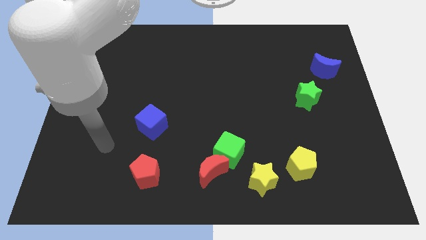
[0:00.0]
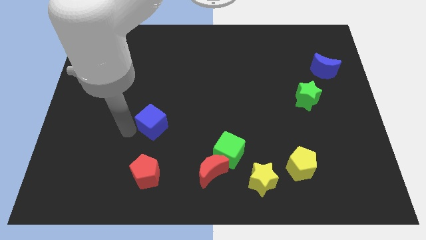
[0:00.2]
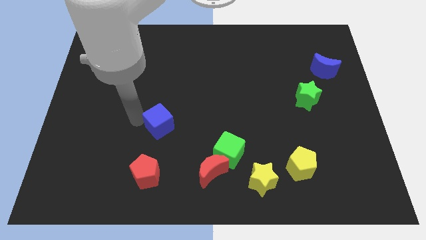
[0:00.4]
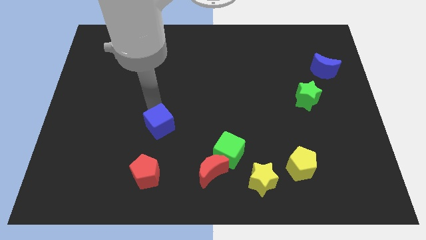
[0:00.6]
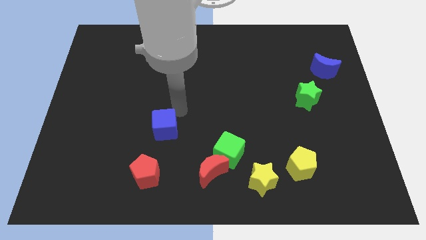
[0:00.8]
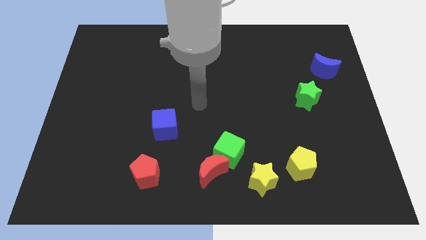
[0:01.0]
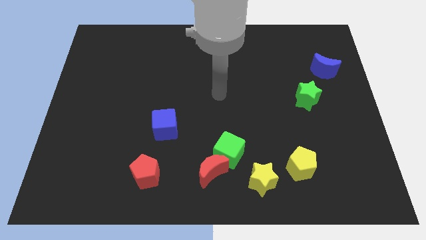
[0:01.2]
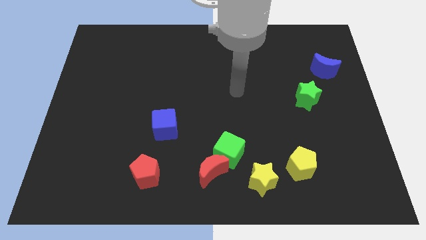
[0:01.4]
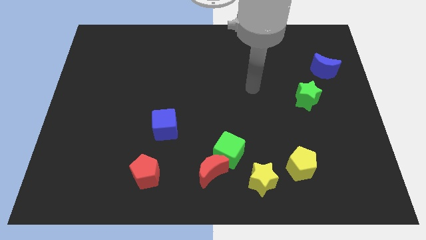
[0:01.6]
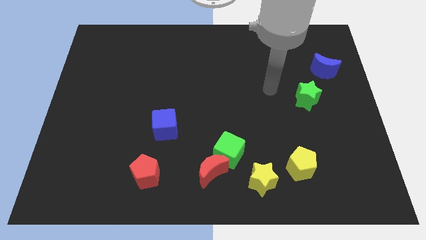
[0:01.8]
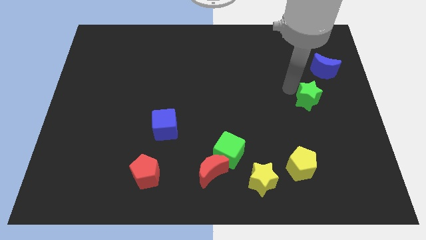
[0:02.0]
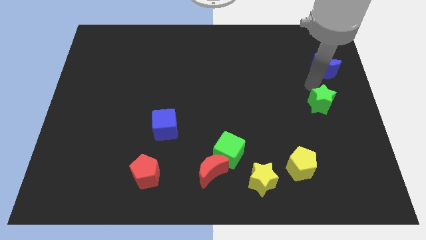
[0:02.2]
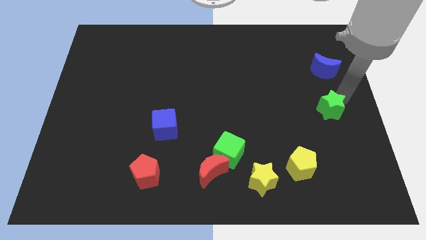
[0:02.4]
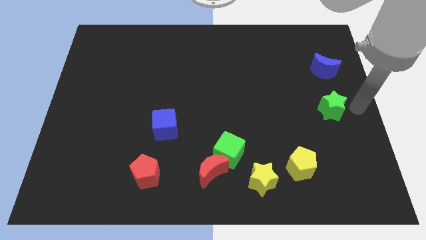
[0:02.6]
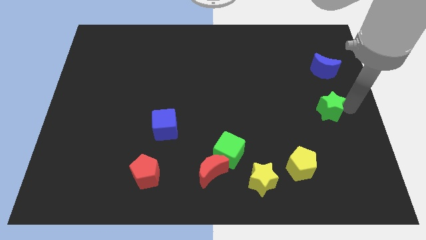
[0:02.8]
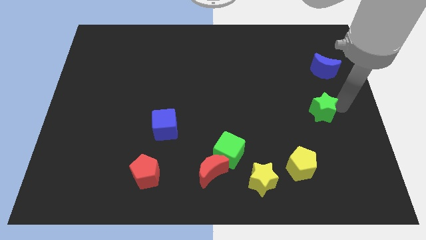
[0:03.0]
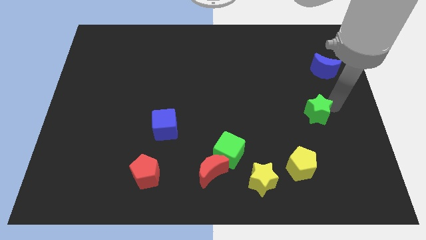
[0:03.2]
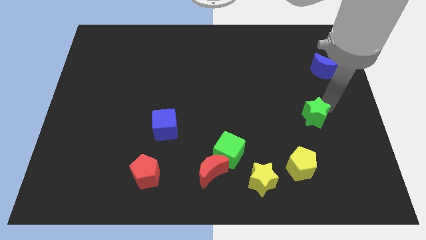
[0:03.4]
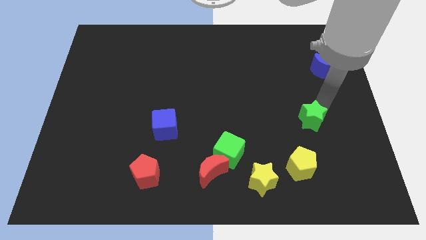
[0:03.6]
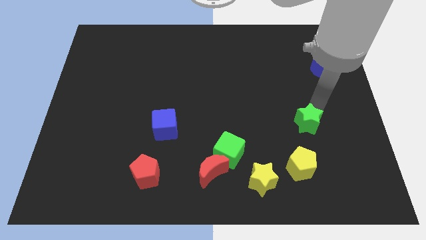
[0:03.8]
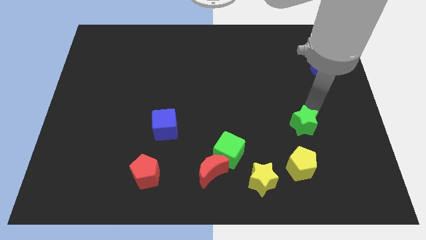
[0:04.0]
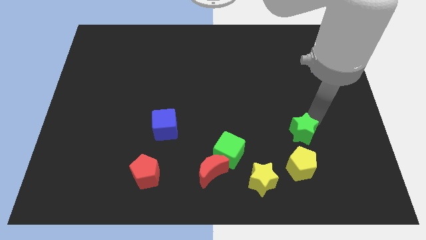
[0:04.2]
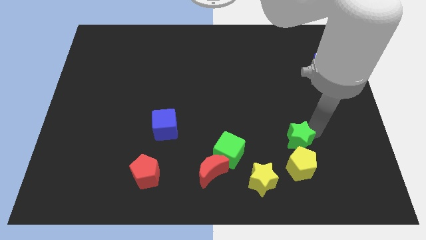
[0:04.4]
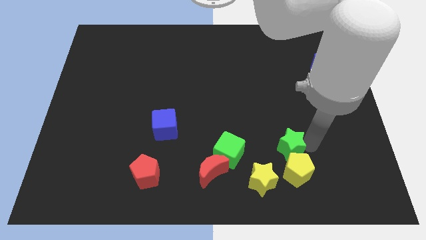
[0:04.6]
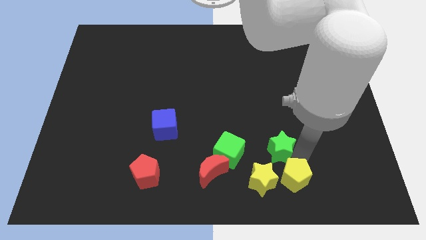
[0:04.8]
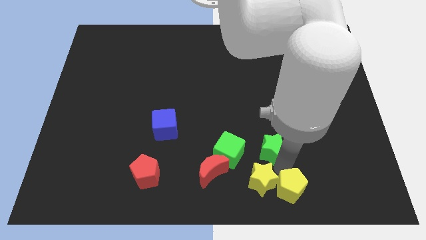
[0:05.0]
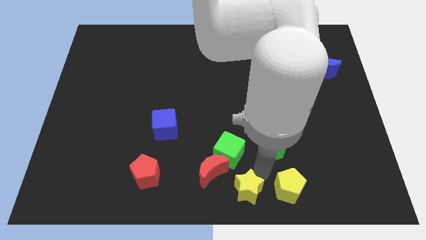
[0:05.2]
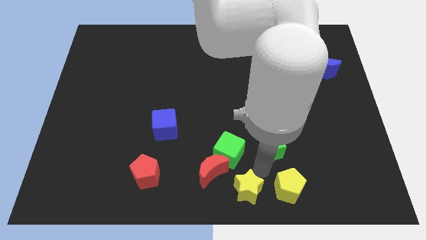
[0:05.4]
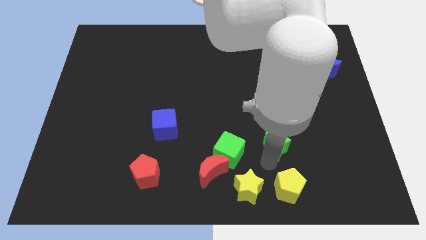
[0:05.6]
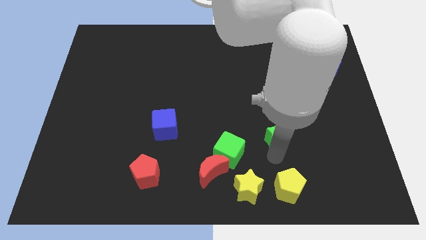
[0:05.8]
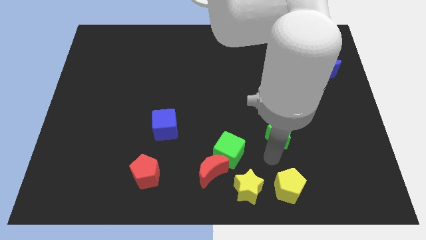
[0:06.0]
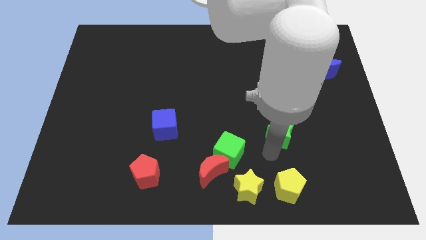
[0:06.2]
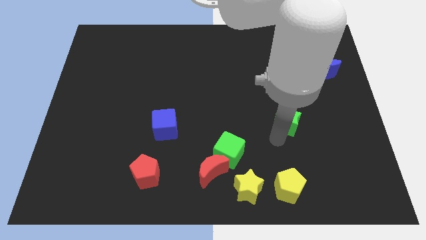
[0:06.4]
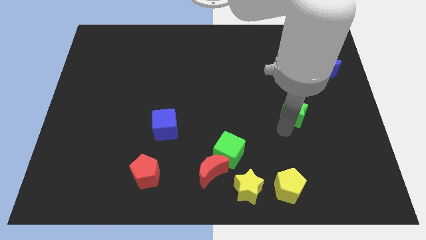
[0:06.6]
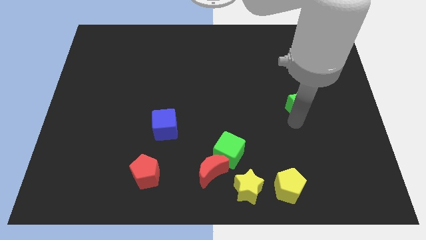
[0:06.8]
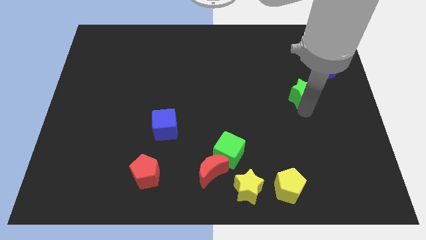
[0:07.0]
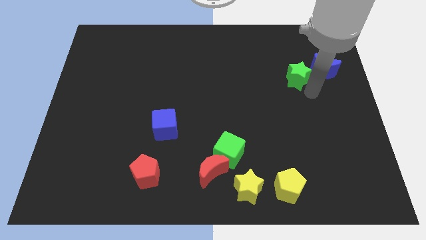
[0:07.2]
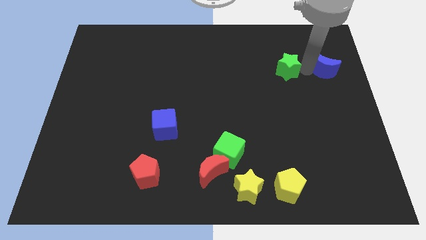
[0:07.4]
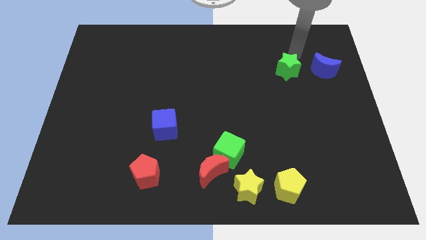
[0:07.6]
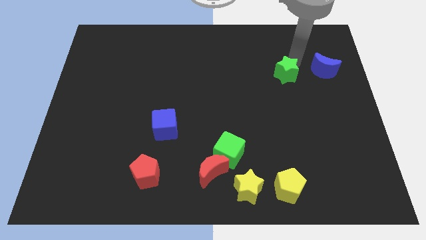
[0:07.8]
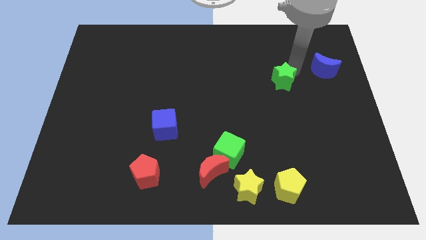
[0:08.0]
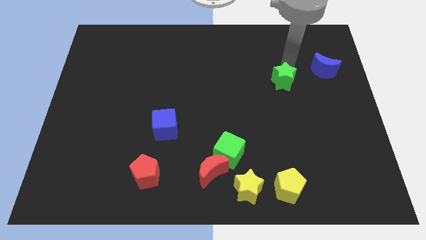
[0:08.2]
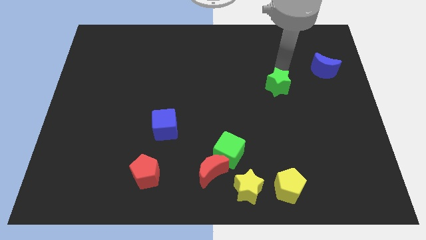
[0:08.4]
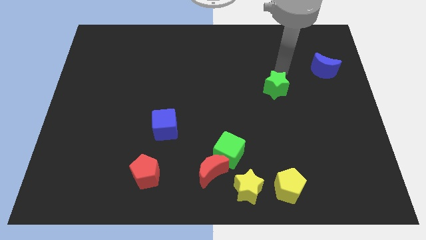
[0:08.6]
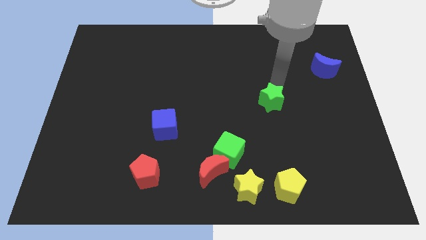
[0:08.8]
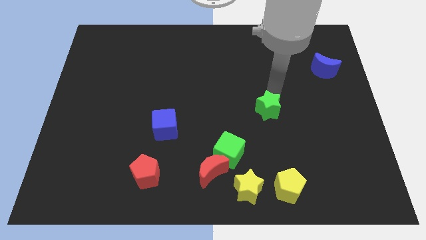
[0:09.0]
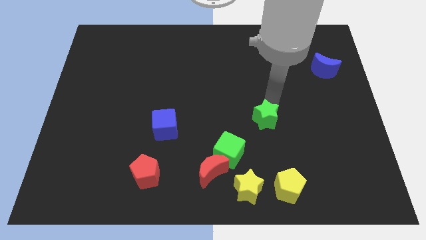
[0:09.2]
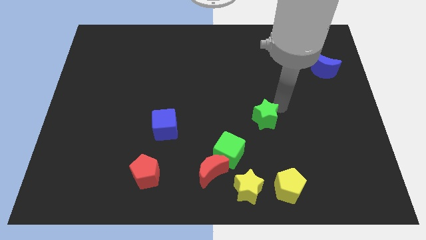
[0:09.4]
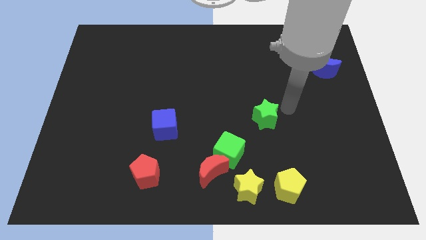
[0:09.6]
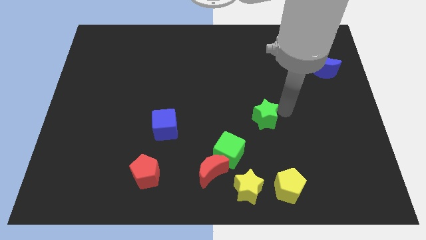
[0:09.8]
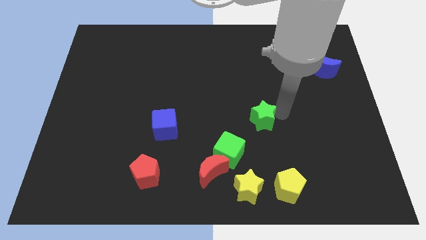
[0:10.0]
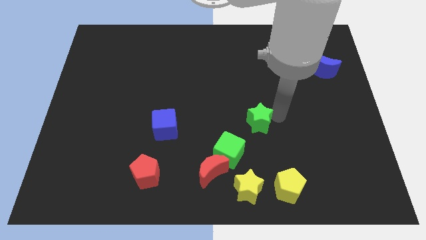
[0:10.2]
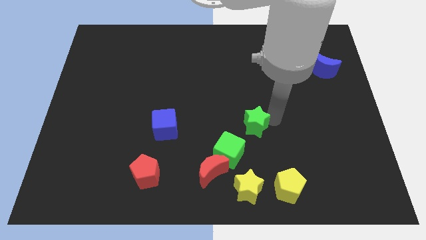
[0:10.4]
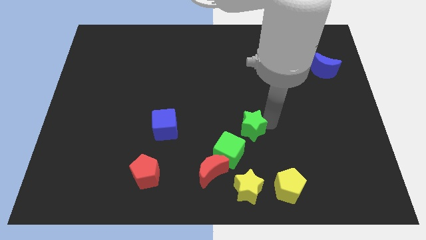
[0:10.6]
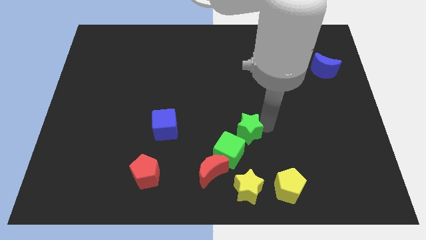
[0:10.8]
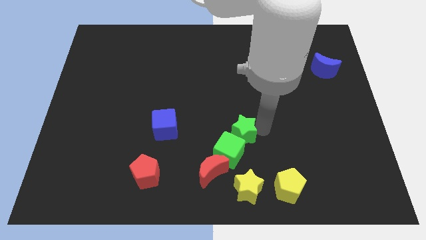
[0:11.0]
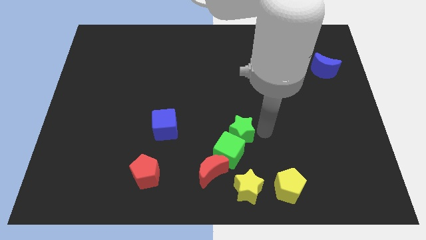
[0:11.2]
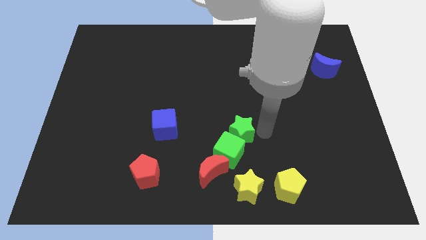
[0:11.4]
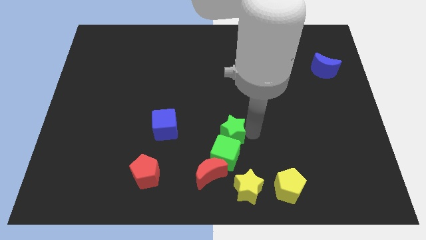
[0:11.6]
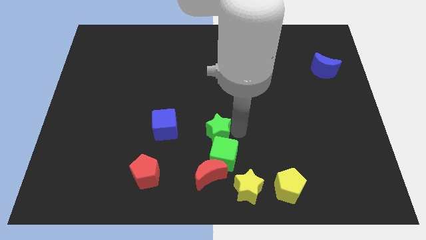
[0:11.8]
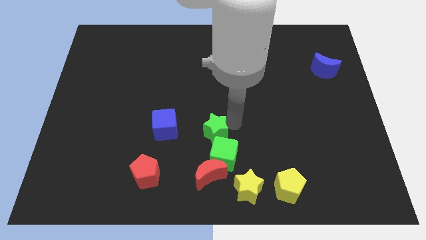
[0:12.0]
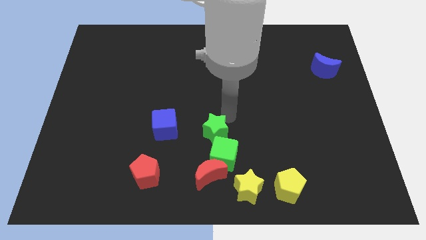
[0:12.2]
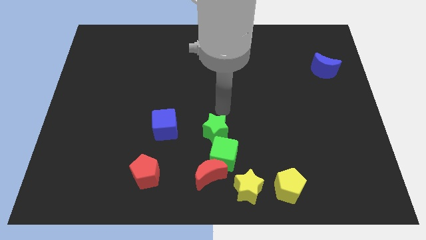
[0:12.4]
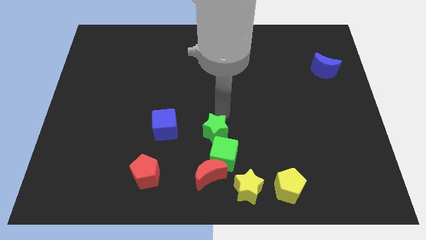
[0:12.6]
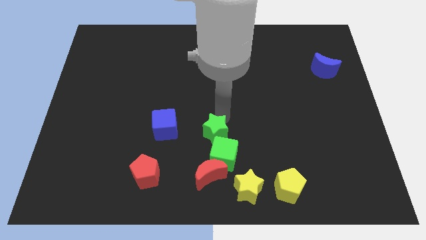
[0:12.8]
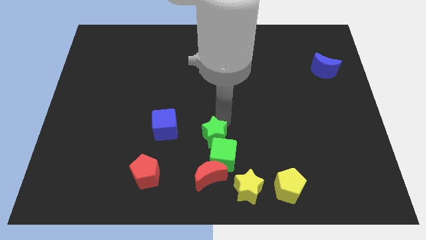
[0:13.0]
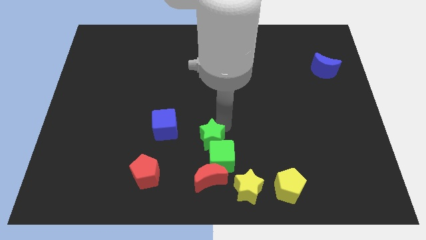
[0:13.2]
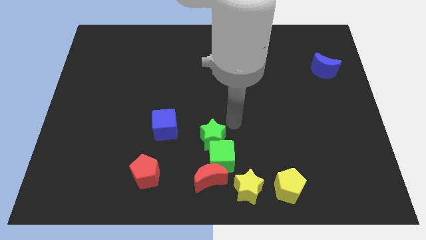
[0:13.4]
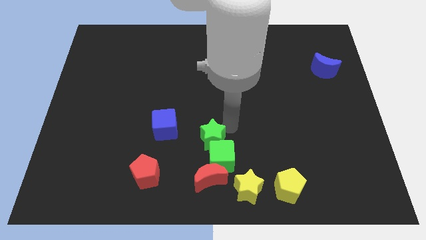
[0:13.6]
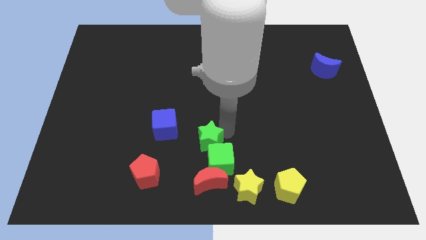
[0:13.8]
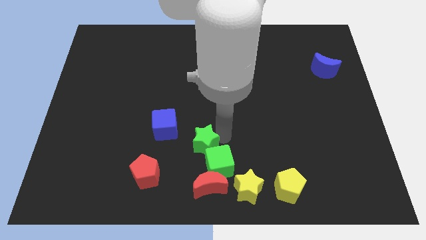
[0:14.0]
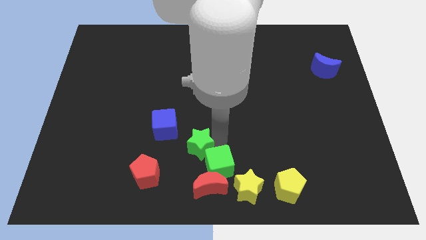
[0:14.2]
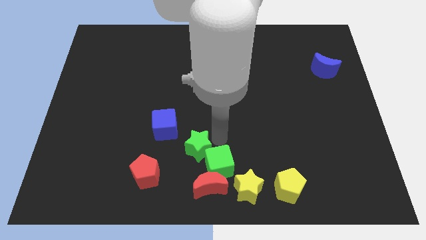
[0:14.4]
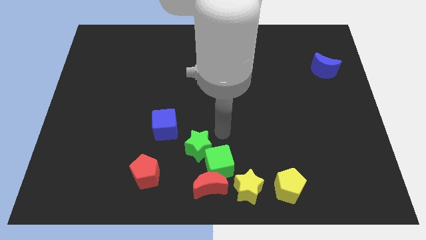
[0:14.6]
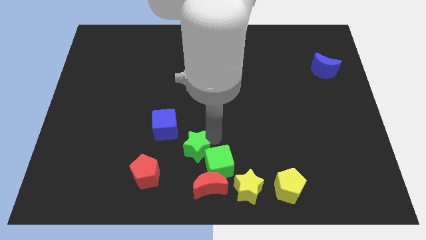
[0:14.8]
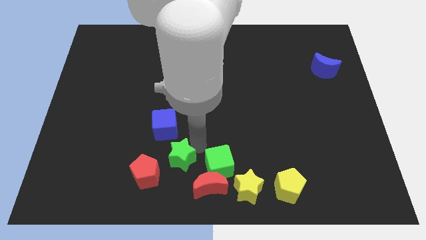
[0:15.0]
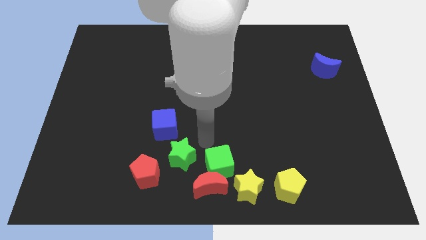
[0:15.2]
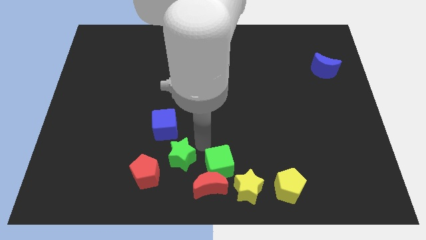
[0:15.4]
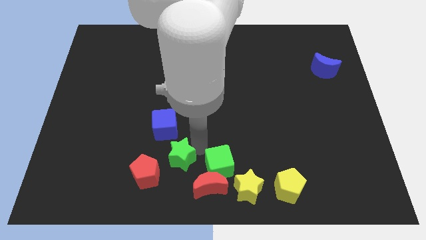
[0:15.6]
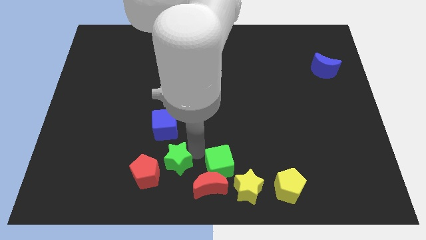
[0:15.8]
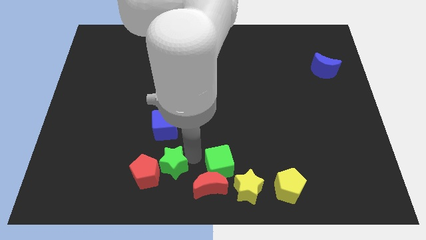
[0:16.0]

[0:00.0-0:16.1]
slide the green star to the red pentagon
